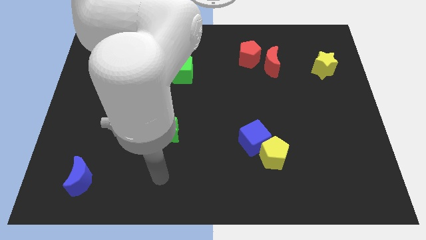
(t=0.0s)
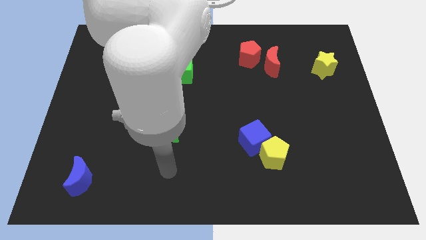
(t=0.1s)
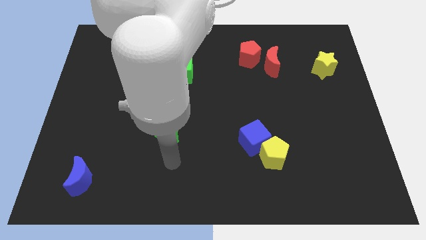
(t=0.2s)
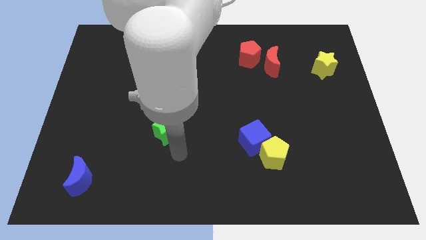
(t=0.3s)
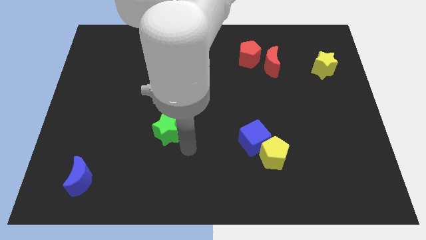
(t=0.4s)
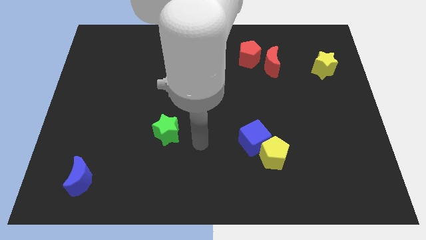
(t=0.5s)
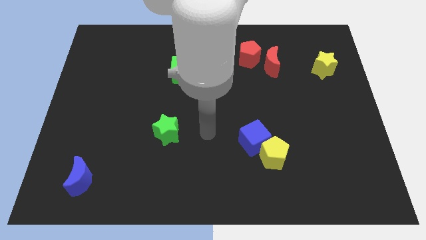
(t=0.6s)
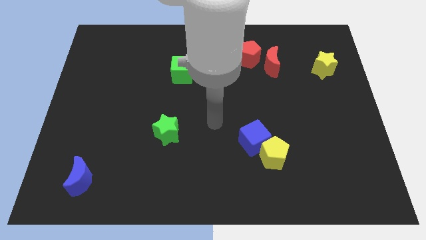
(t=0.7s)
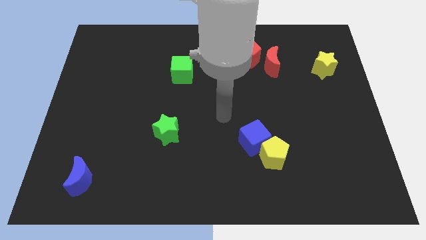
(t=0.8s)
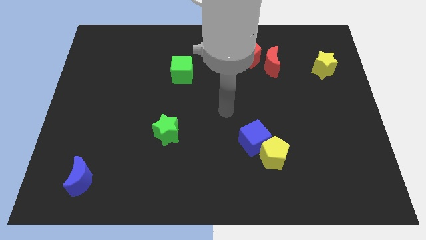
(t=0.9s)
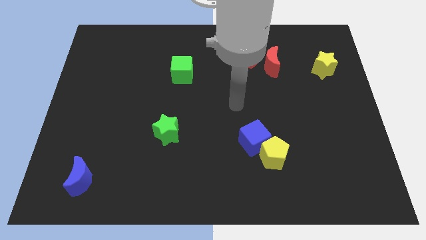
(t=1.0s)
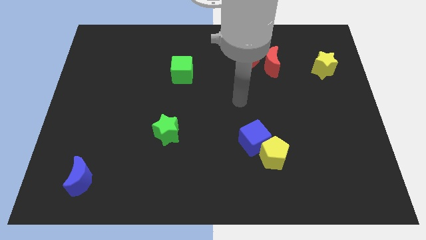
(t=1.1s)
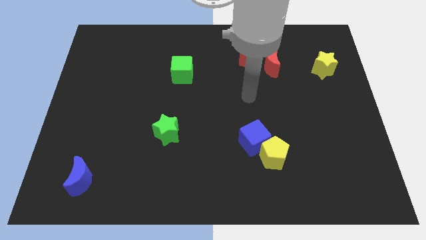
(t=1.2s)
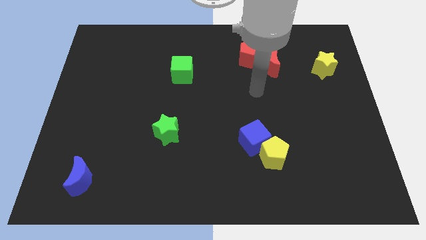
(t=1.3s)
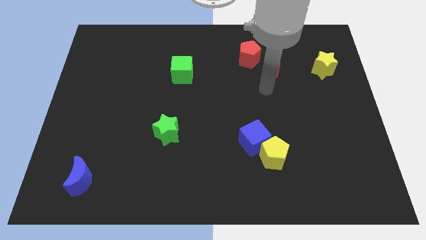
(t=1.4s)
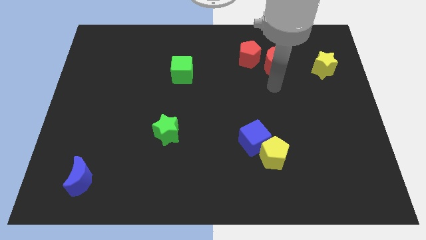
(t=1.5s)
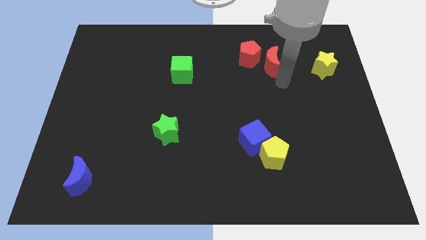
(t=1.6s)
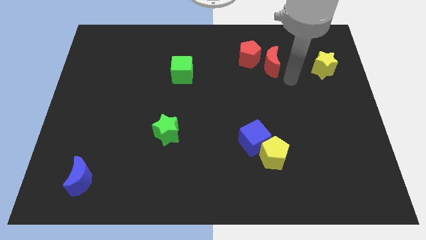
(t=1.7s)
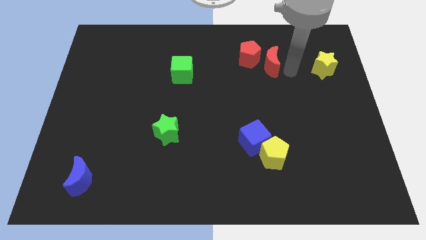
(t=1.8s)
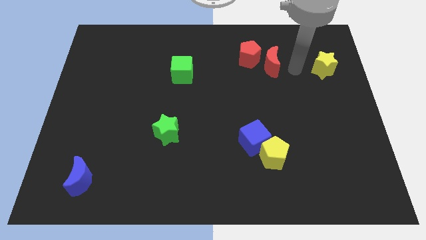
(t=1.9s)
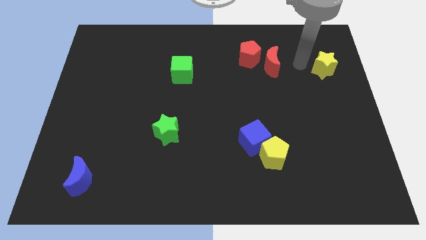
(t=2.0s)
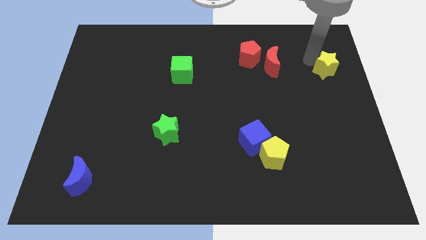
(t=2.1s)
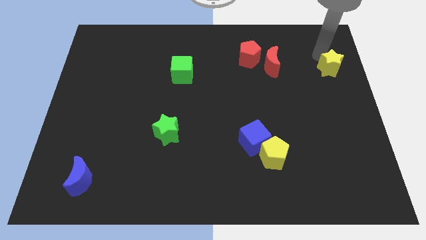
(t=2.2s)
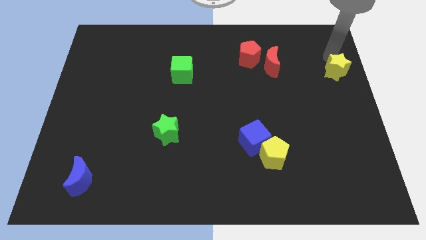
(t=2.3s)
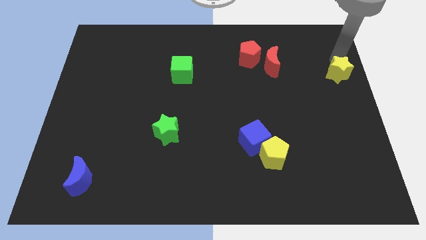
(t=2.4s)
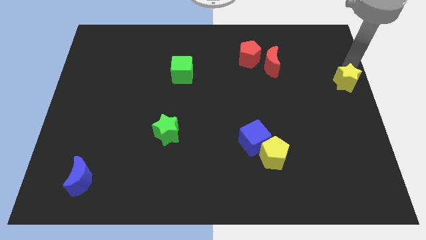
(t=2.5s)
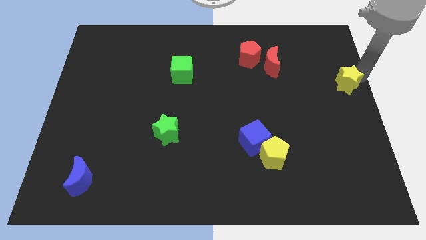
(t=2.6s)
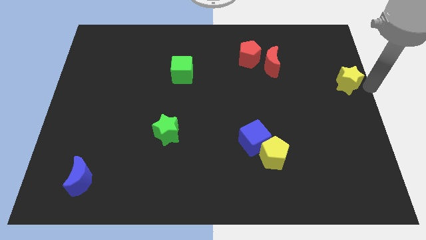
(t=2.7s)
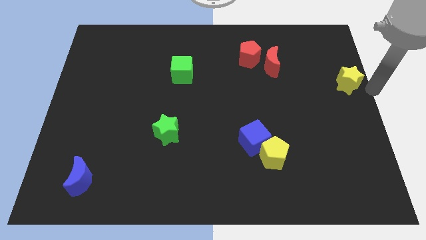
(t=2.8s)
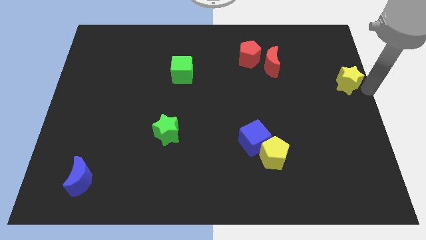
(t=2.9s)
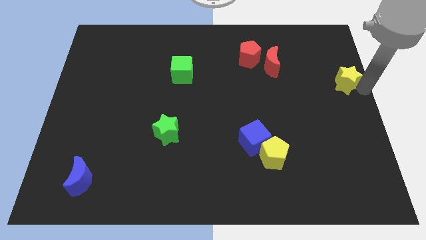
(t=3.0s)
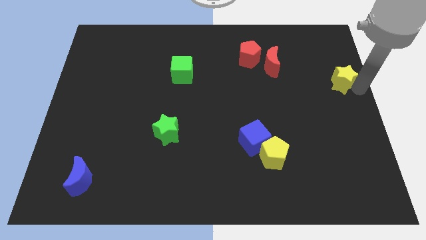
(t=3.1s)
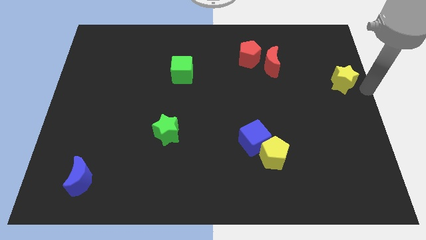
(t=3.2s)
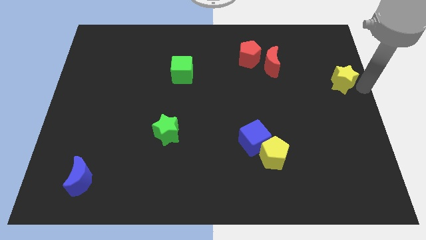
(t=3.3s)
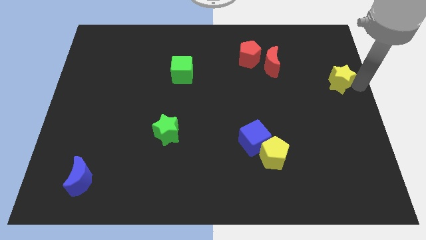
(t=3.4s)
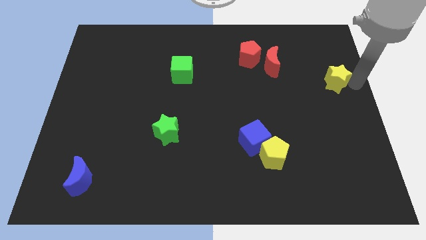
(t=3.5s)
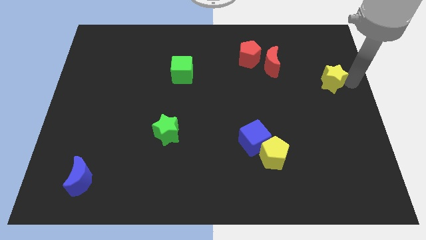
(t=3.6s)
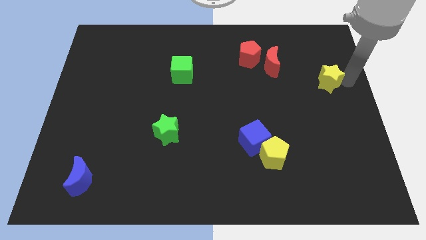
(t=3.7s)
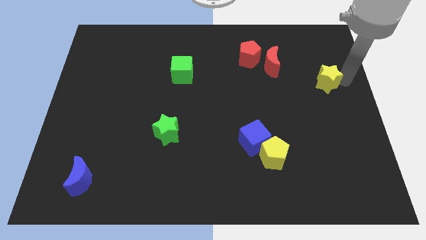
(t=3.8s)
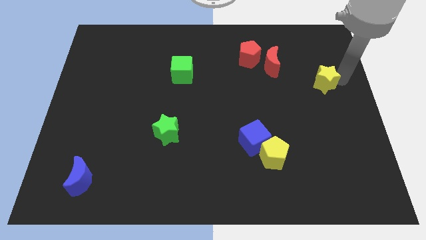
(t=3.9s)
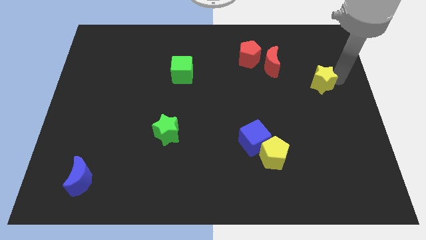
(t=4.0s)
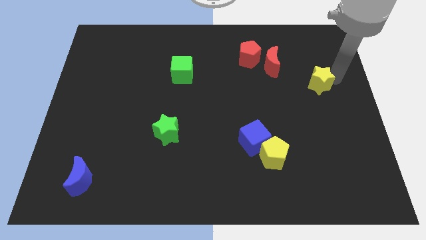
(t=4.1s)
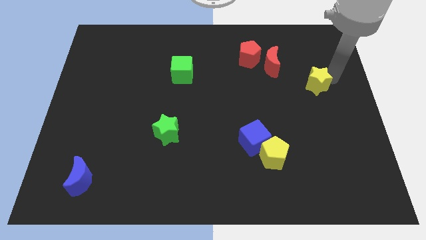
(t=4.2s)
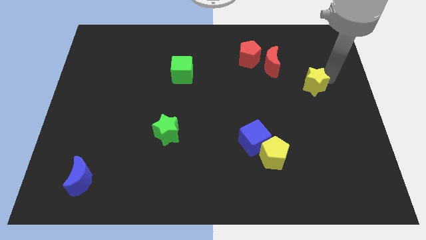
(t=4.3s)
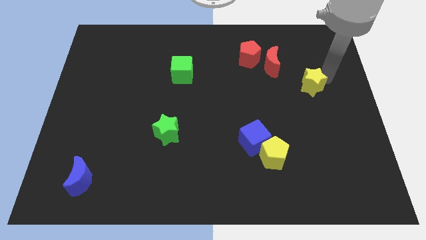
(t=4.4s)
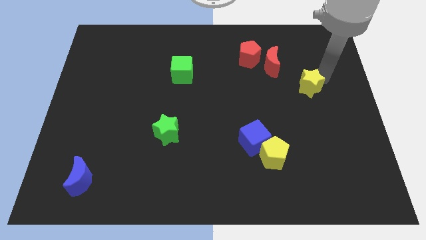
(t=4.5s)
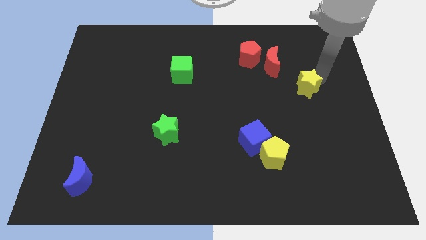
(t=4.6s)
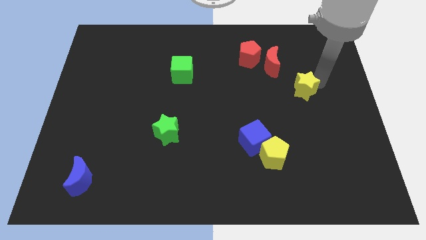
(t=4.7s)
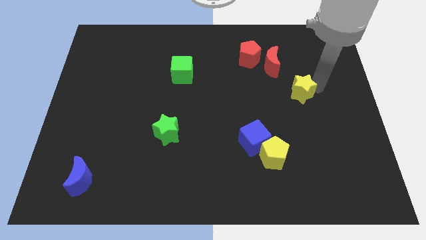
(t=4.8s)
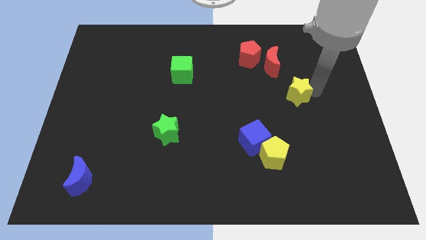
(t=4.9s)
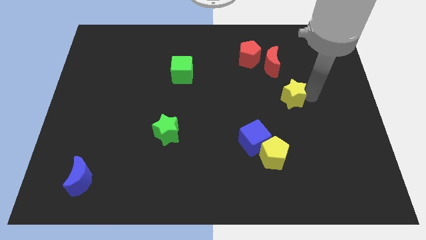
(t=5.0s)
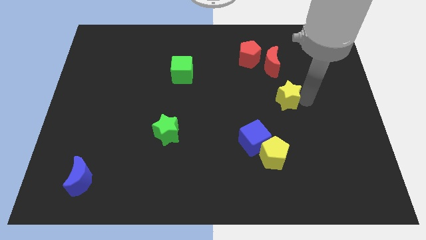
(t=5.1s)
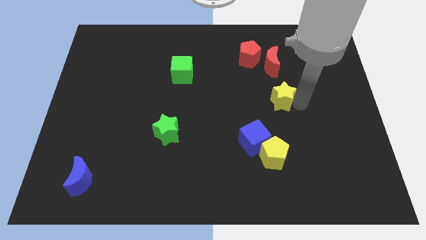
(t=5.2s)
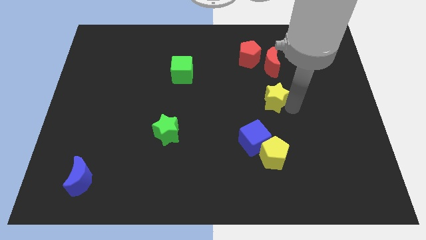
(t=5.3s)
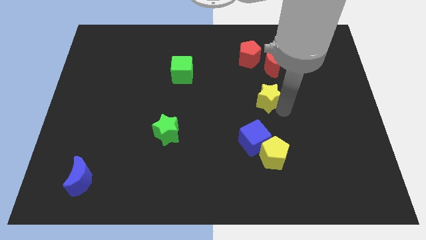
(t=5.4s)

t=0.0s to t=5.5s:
put the yellow star to the top of the blue cube

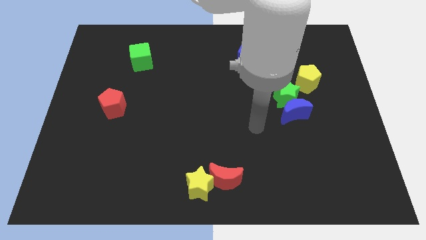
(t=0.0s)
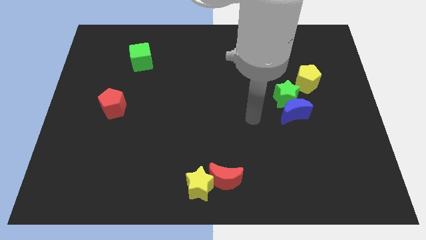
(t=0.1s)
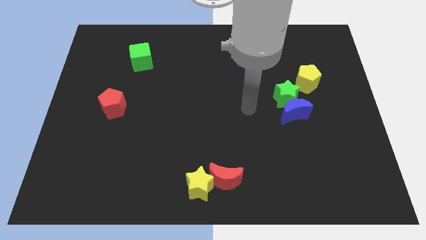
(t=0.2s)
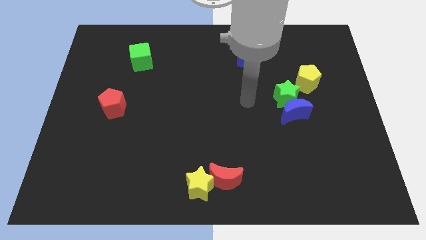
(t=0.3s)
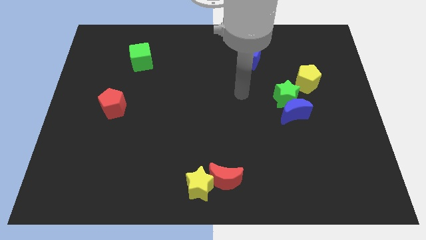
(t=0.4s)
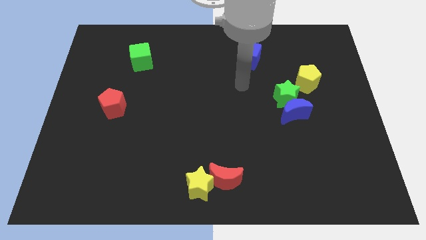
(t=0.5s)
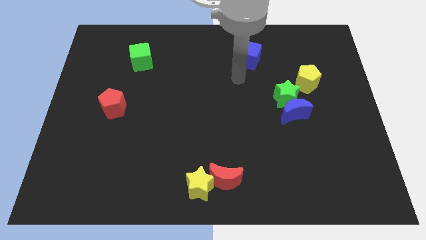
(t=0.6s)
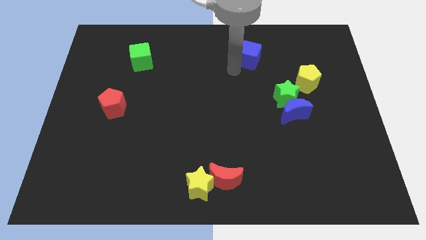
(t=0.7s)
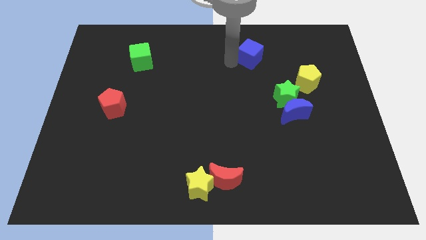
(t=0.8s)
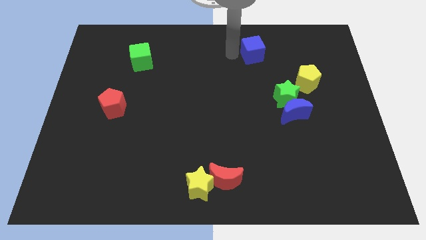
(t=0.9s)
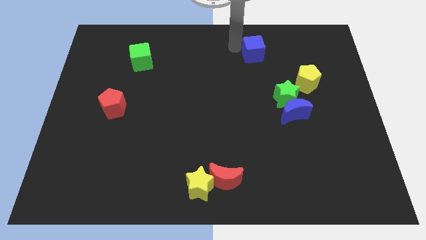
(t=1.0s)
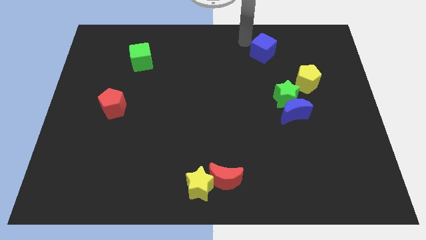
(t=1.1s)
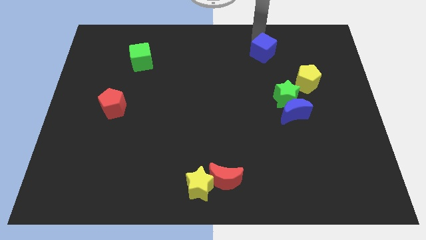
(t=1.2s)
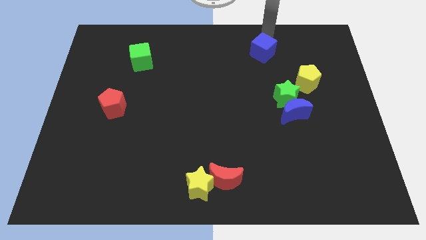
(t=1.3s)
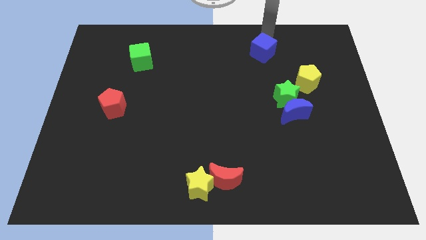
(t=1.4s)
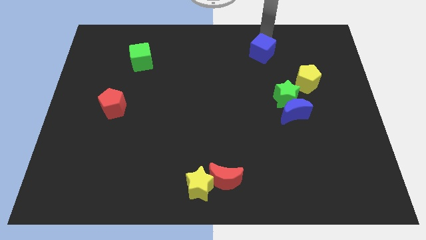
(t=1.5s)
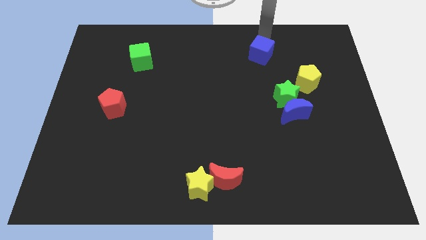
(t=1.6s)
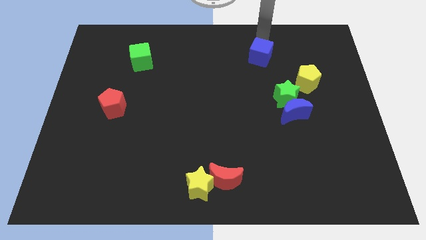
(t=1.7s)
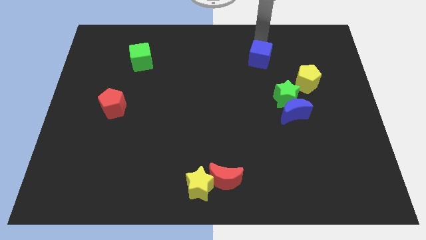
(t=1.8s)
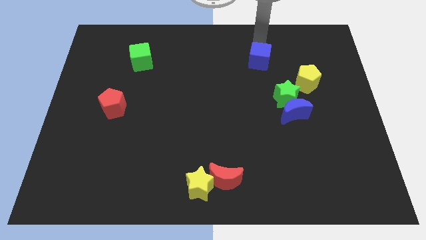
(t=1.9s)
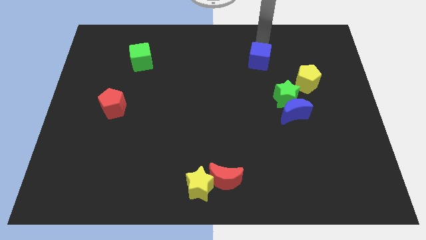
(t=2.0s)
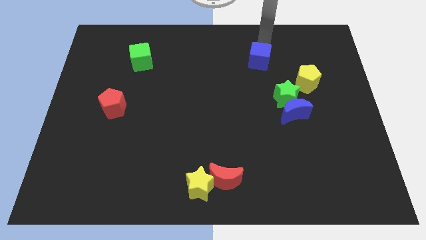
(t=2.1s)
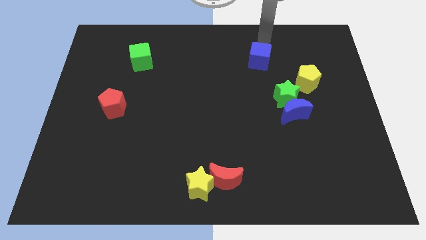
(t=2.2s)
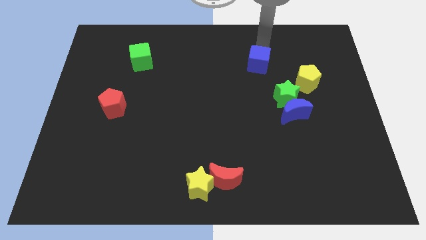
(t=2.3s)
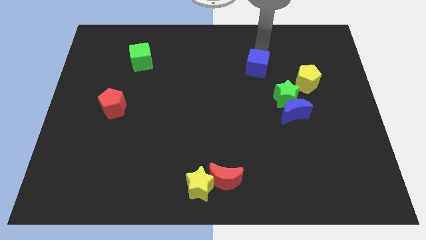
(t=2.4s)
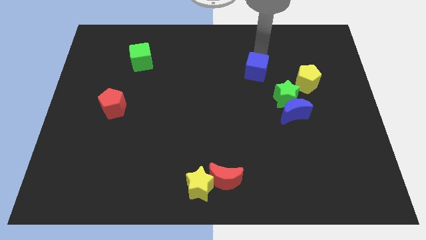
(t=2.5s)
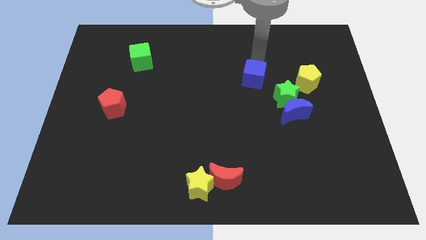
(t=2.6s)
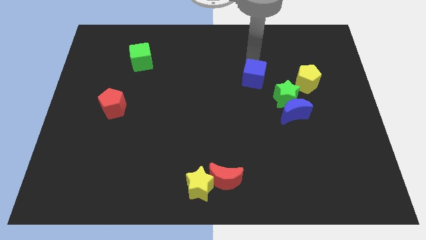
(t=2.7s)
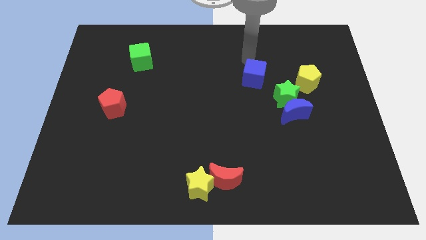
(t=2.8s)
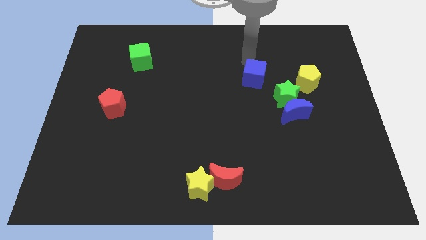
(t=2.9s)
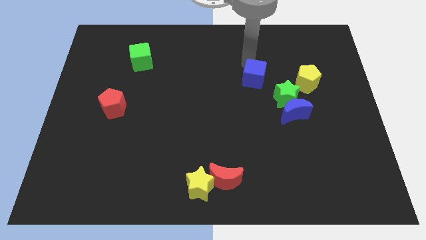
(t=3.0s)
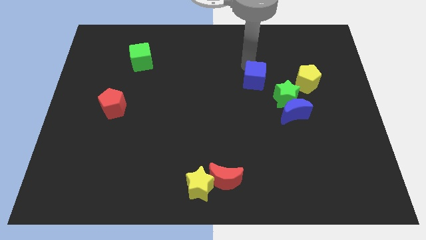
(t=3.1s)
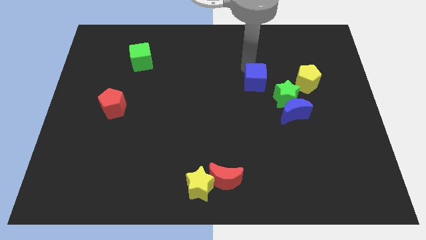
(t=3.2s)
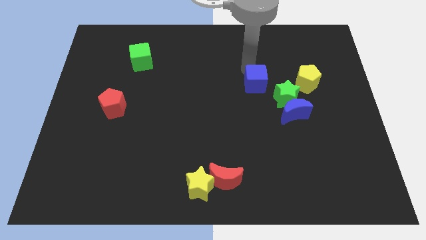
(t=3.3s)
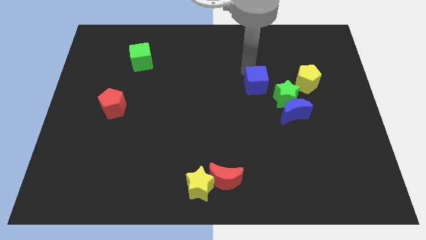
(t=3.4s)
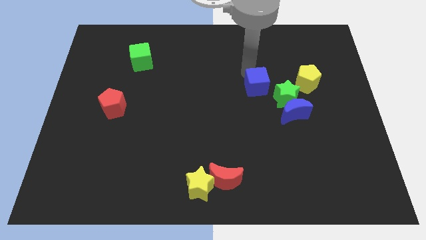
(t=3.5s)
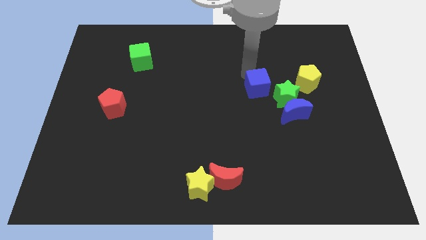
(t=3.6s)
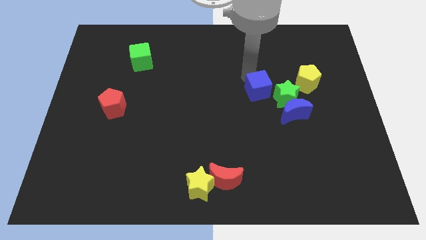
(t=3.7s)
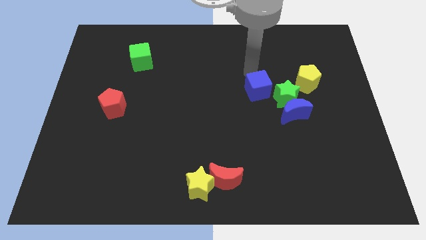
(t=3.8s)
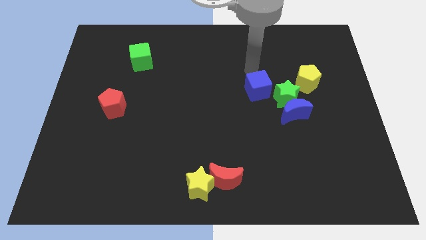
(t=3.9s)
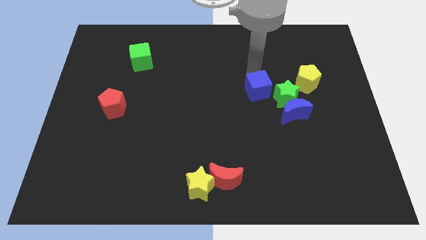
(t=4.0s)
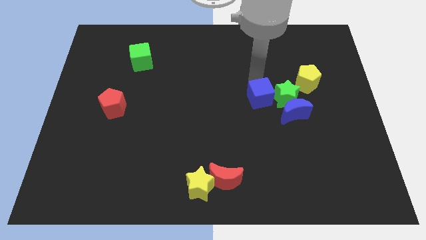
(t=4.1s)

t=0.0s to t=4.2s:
put the blue cube to the bottom left side of the green star
